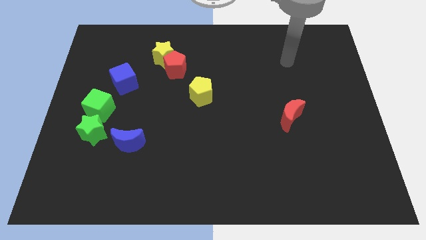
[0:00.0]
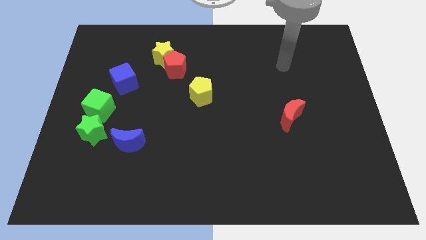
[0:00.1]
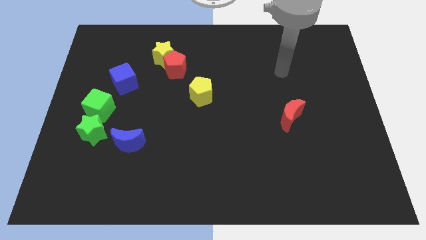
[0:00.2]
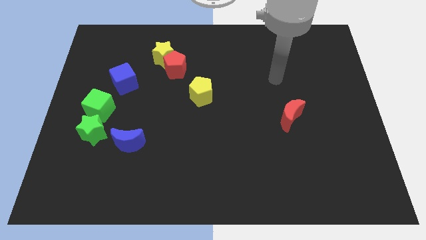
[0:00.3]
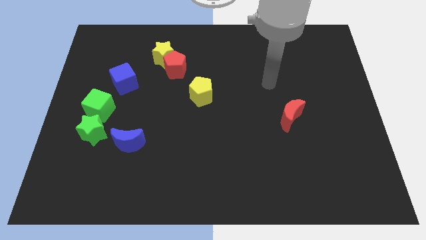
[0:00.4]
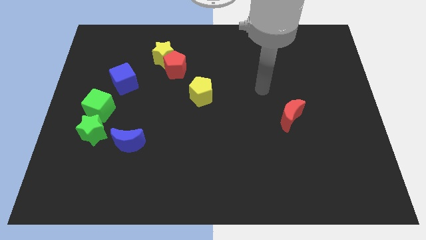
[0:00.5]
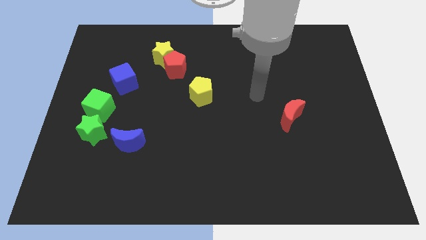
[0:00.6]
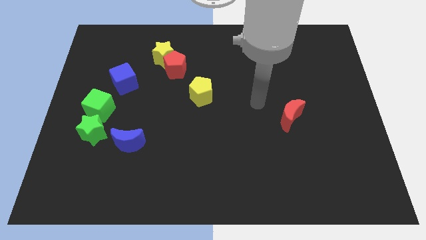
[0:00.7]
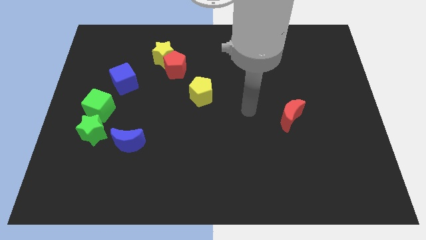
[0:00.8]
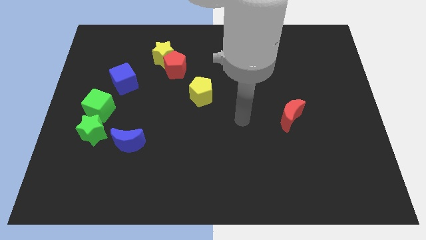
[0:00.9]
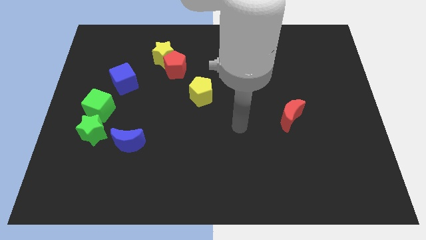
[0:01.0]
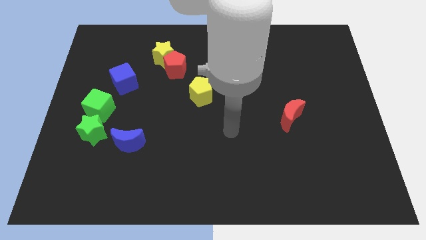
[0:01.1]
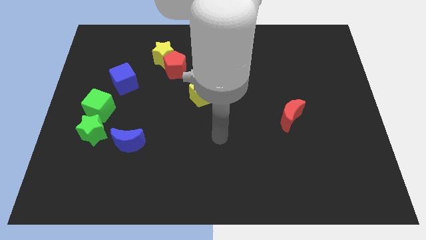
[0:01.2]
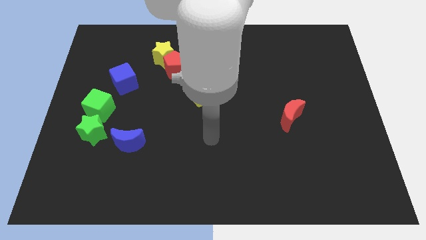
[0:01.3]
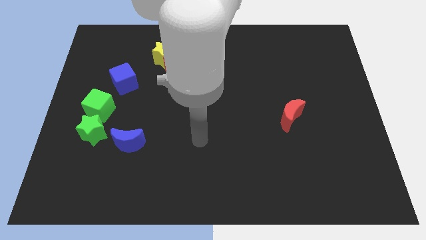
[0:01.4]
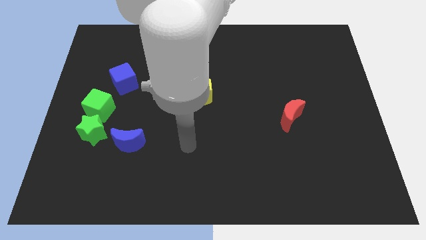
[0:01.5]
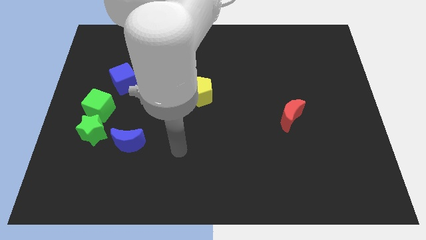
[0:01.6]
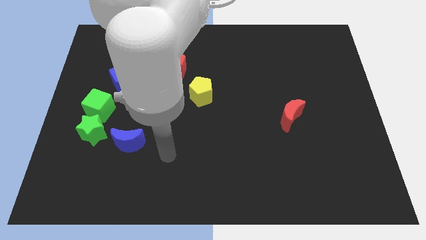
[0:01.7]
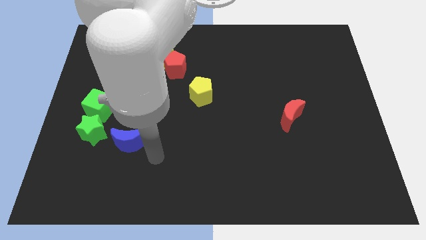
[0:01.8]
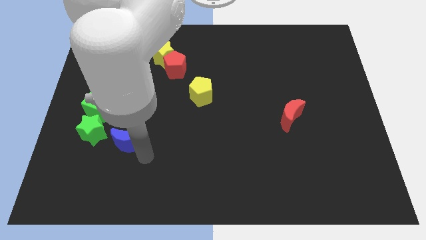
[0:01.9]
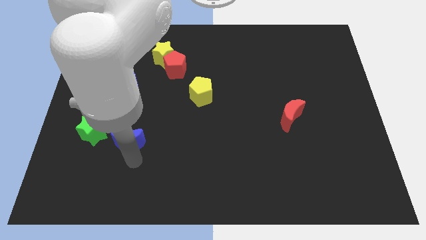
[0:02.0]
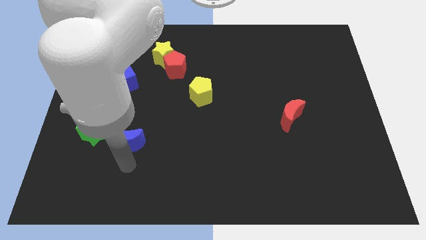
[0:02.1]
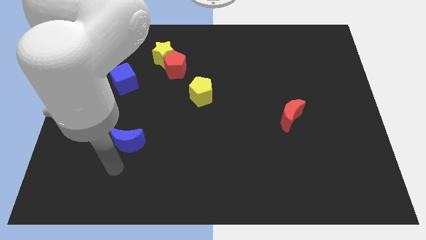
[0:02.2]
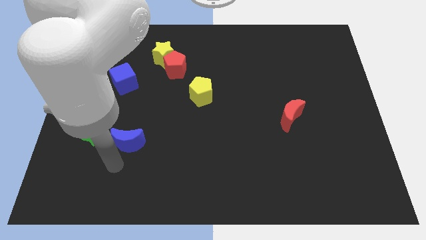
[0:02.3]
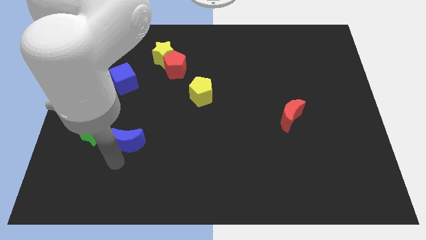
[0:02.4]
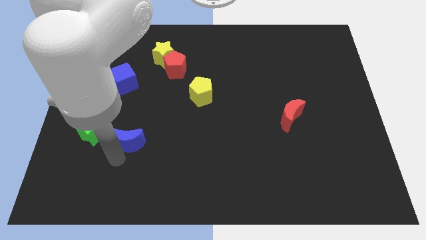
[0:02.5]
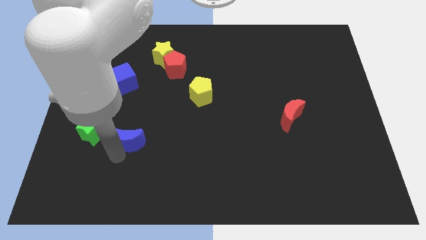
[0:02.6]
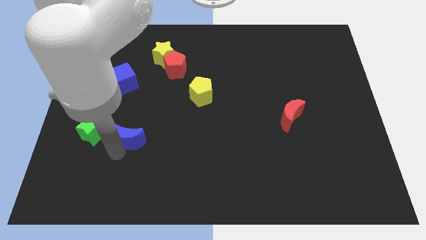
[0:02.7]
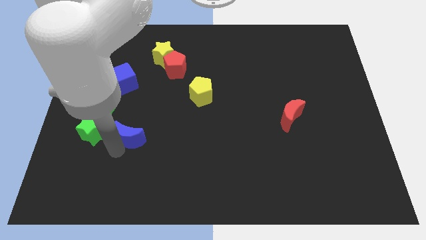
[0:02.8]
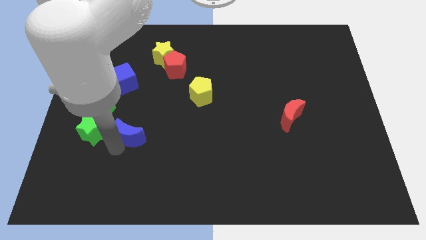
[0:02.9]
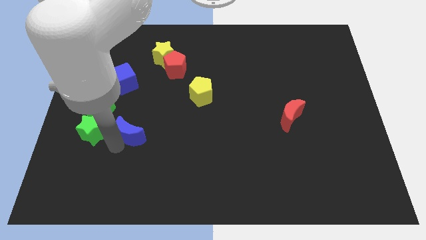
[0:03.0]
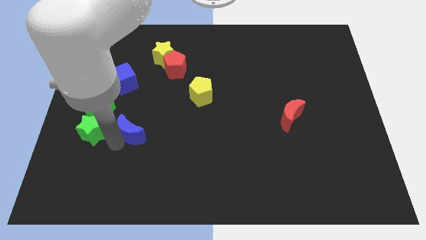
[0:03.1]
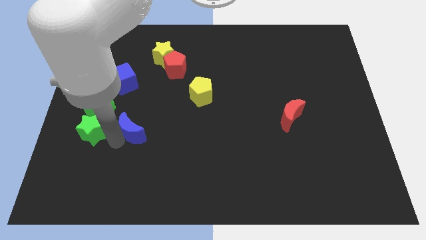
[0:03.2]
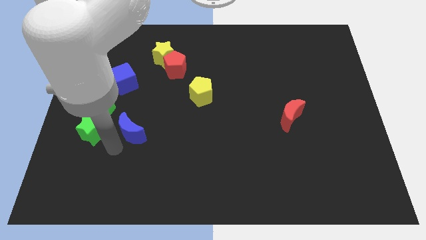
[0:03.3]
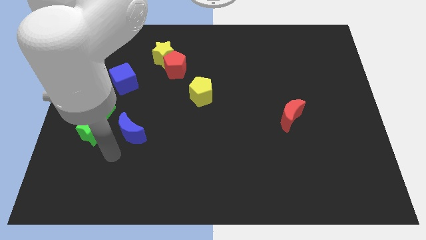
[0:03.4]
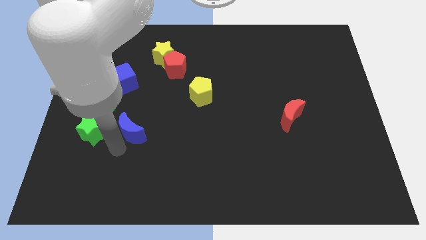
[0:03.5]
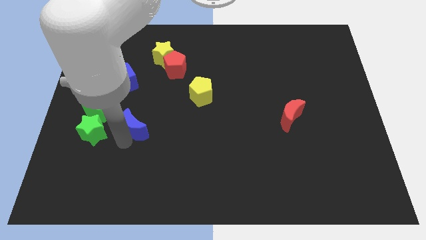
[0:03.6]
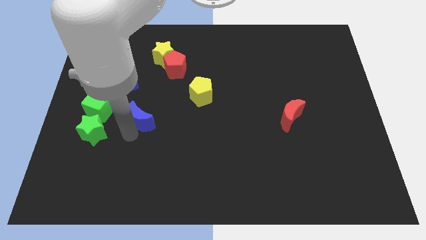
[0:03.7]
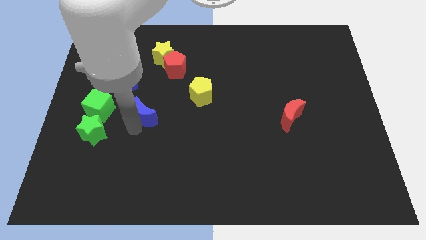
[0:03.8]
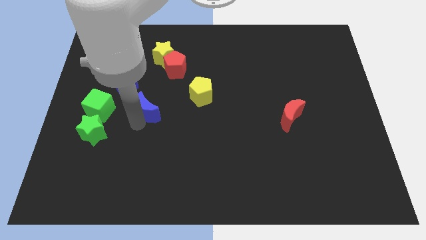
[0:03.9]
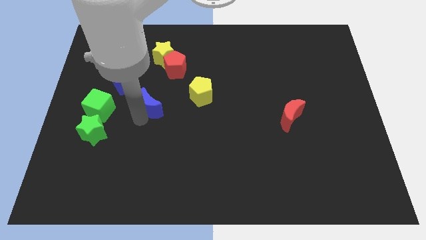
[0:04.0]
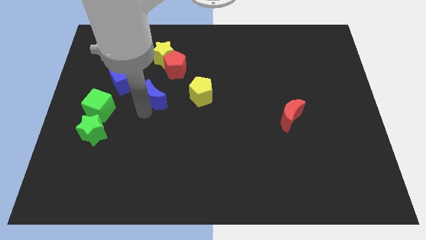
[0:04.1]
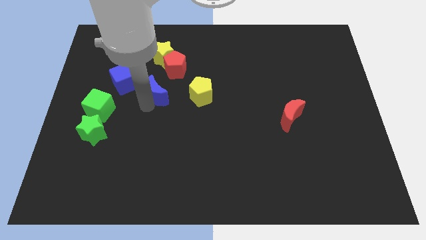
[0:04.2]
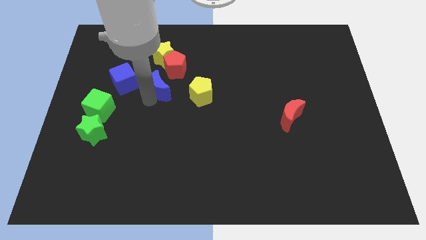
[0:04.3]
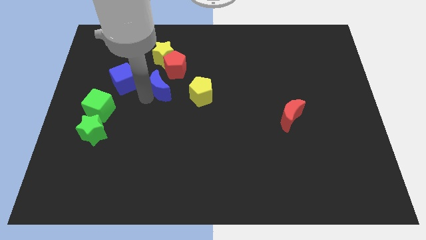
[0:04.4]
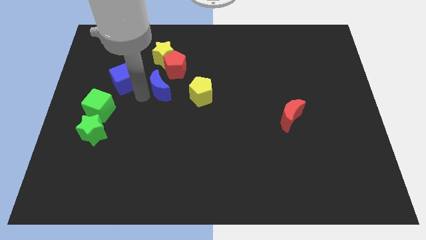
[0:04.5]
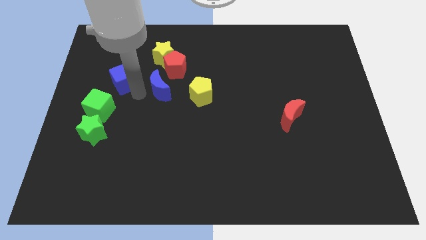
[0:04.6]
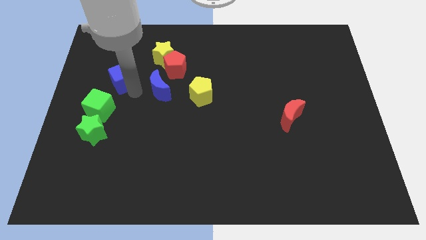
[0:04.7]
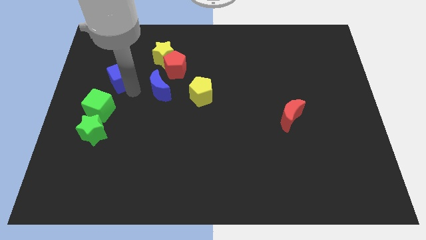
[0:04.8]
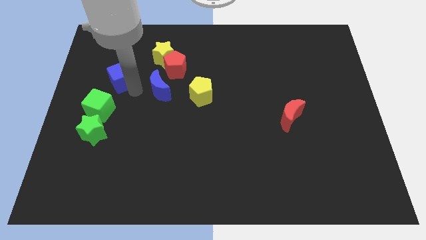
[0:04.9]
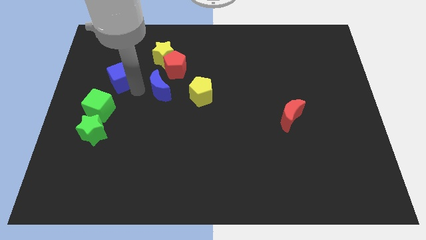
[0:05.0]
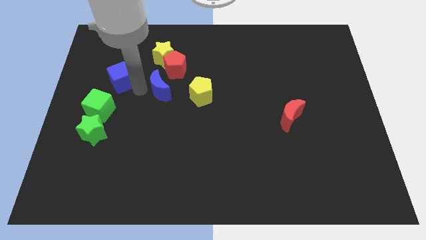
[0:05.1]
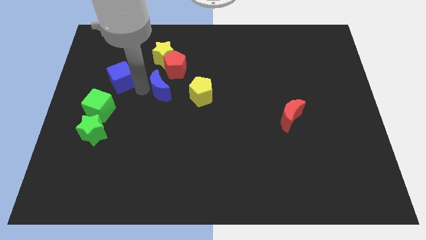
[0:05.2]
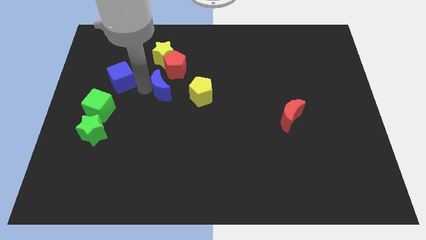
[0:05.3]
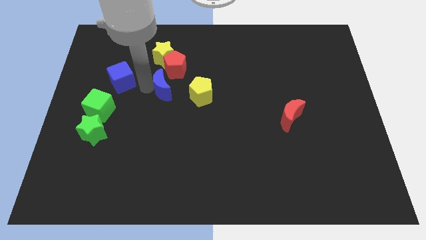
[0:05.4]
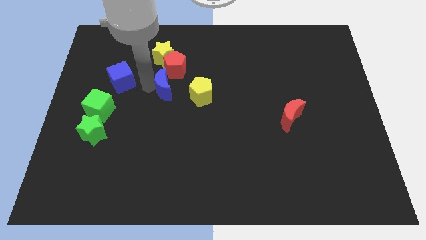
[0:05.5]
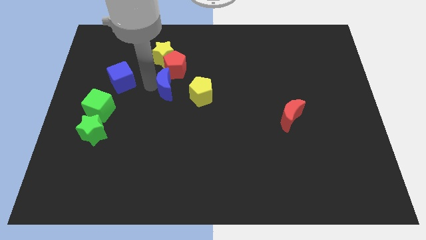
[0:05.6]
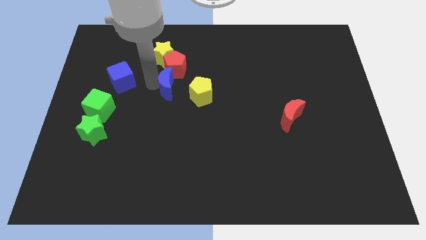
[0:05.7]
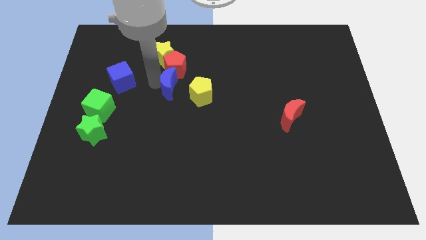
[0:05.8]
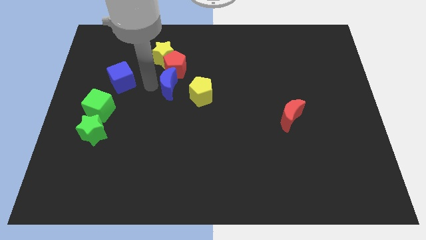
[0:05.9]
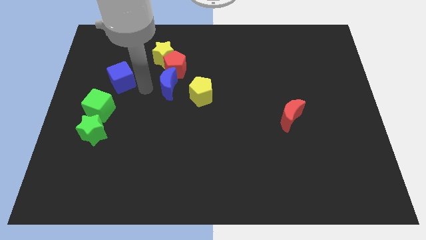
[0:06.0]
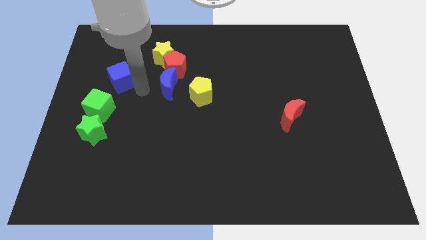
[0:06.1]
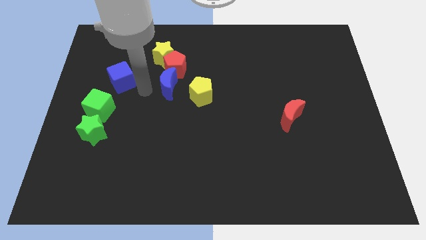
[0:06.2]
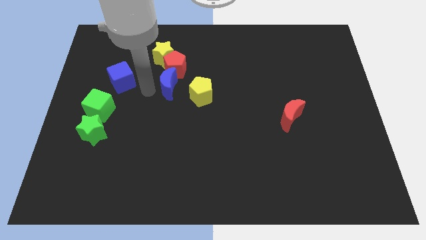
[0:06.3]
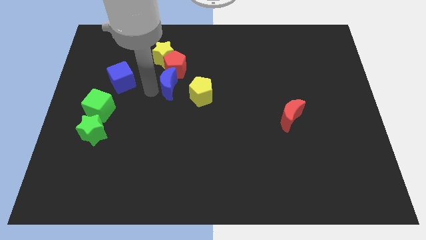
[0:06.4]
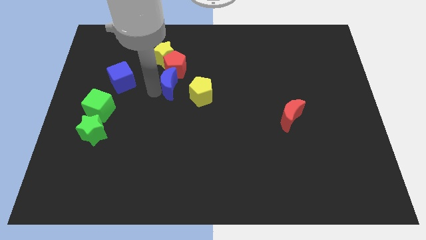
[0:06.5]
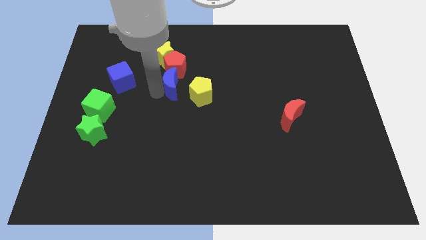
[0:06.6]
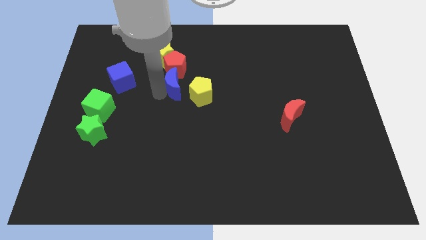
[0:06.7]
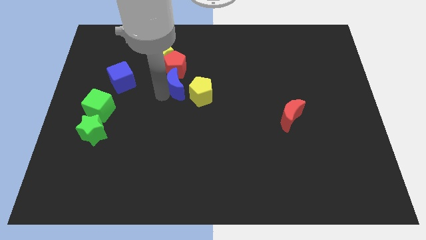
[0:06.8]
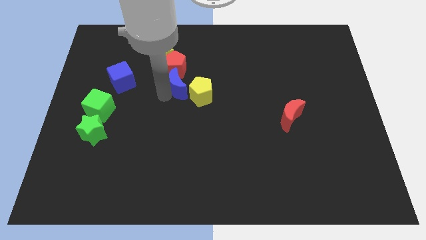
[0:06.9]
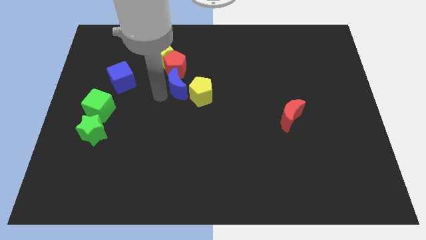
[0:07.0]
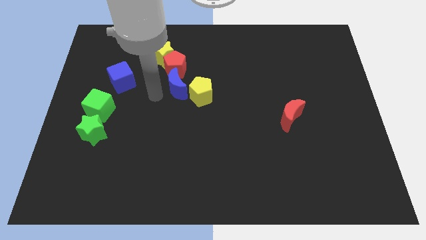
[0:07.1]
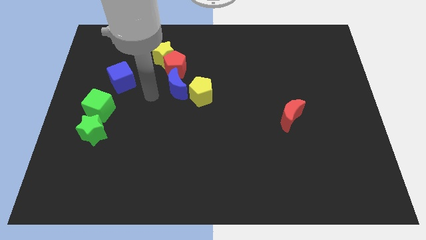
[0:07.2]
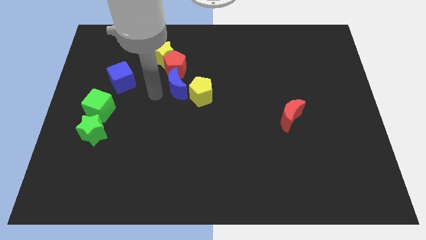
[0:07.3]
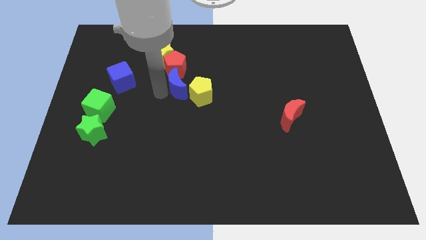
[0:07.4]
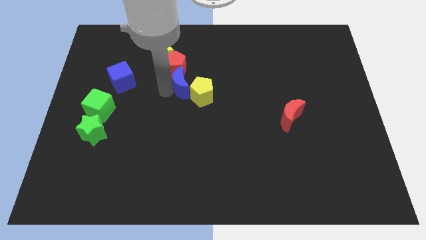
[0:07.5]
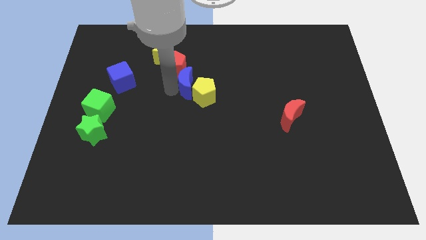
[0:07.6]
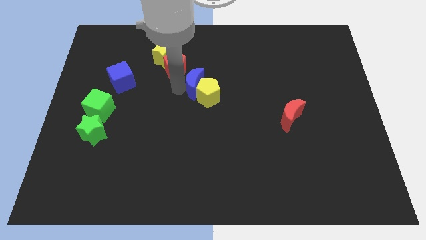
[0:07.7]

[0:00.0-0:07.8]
move the blue moon upwards and right diagonally

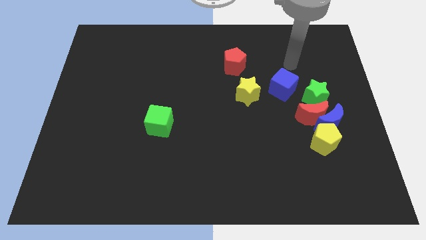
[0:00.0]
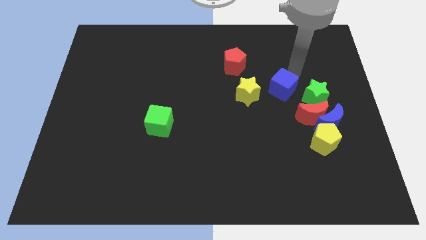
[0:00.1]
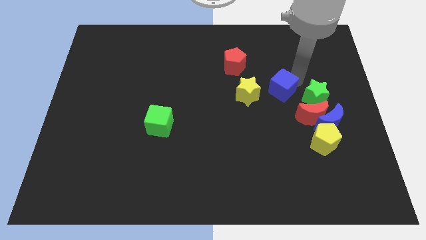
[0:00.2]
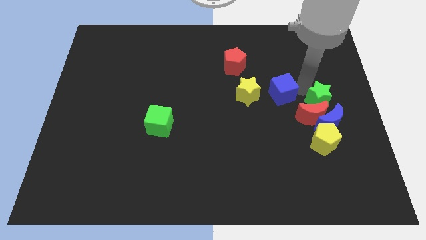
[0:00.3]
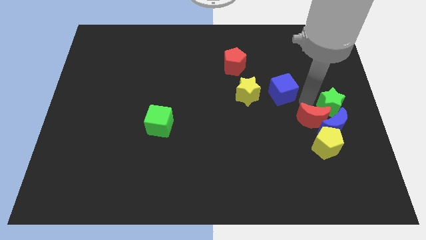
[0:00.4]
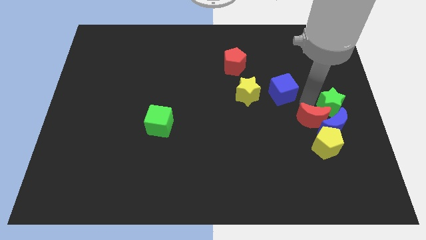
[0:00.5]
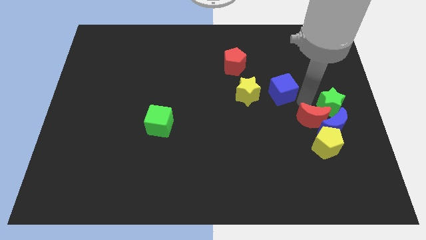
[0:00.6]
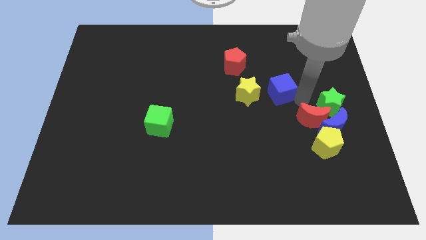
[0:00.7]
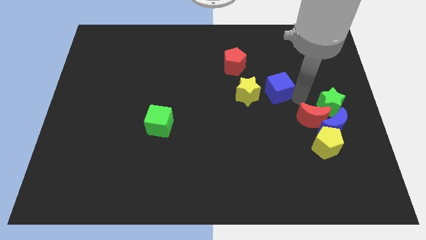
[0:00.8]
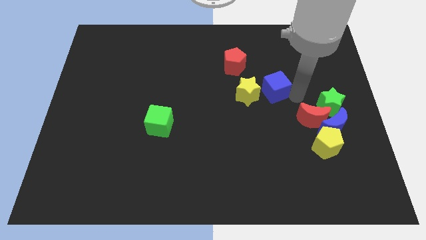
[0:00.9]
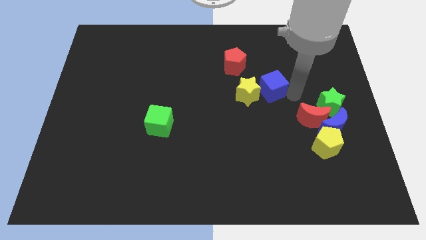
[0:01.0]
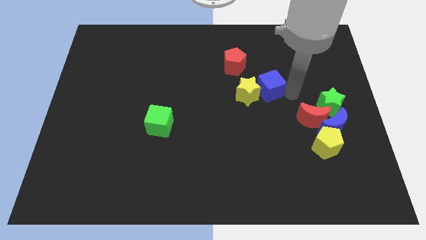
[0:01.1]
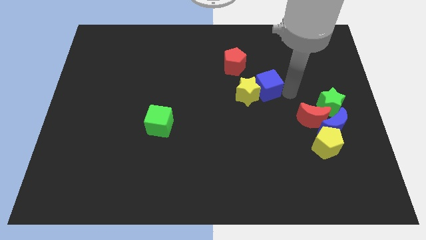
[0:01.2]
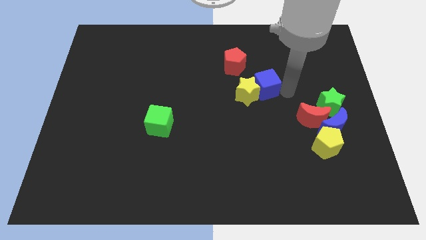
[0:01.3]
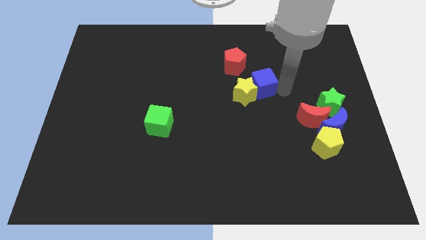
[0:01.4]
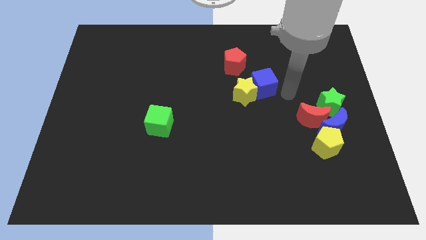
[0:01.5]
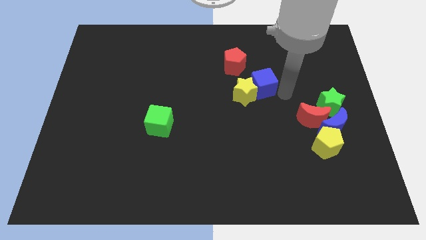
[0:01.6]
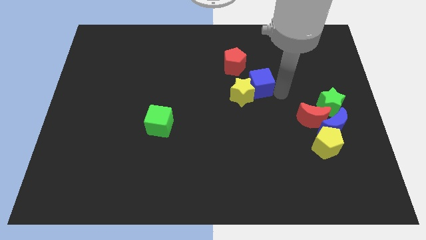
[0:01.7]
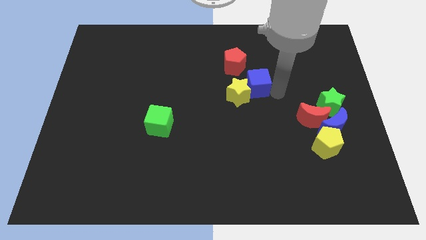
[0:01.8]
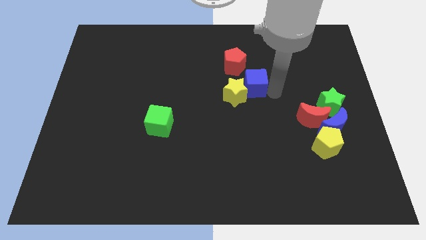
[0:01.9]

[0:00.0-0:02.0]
slightly move the blue cube left
